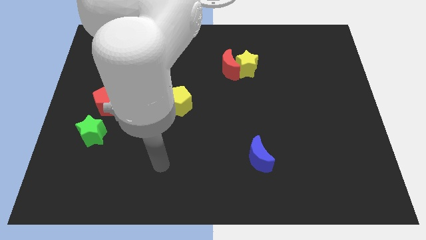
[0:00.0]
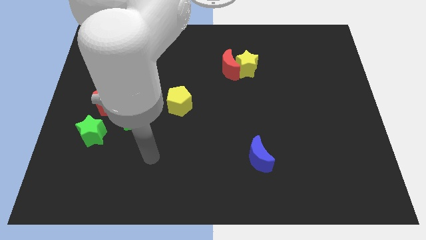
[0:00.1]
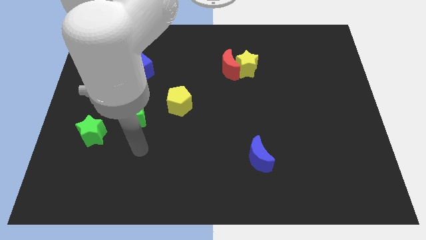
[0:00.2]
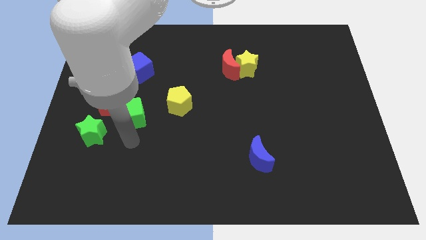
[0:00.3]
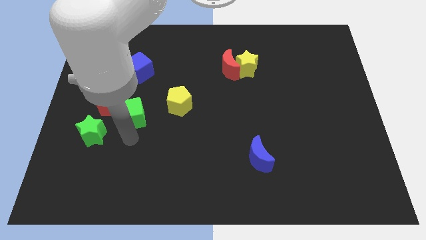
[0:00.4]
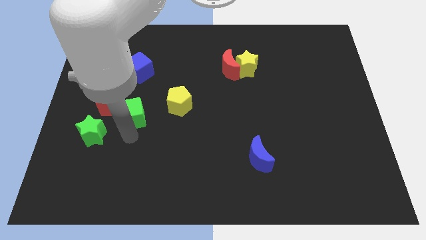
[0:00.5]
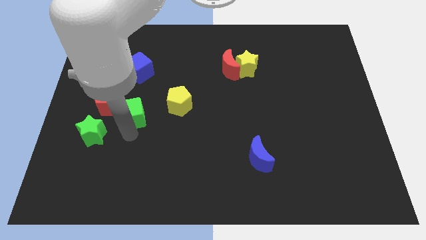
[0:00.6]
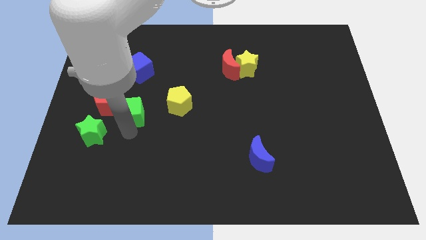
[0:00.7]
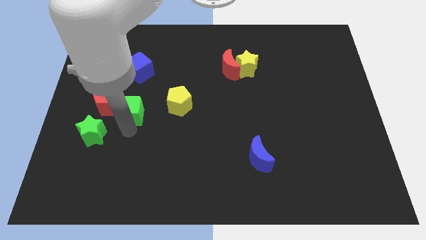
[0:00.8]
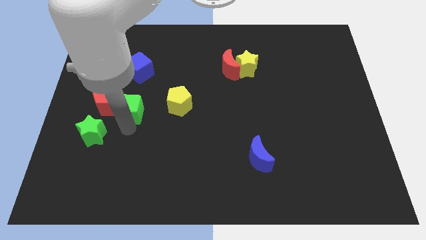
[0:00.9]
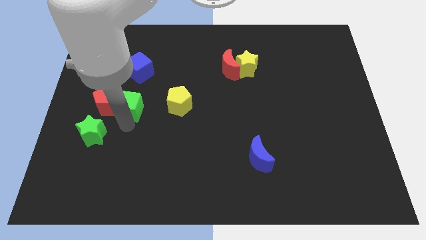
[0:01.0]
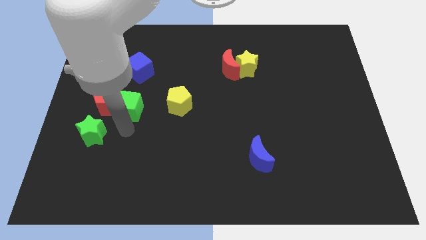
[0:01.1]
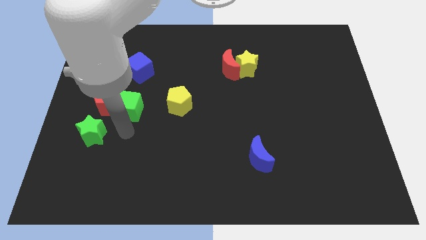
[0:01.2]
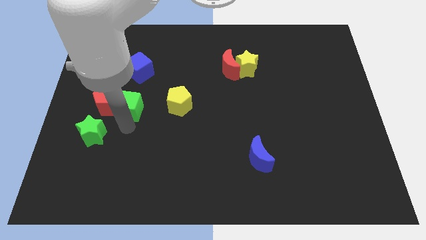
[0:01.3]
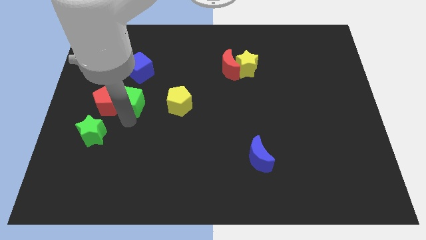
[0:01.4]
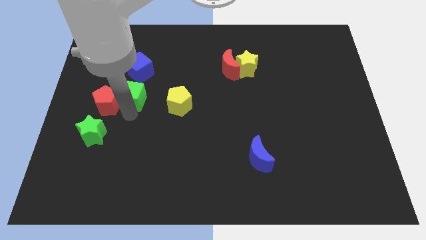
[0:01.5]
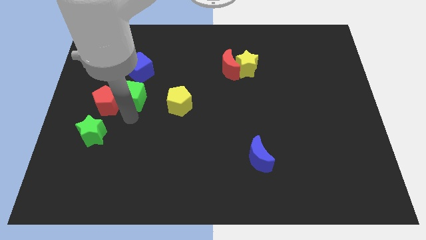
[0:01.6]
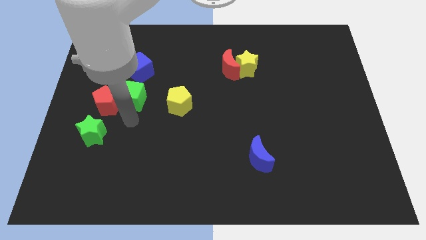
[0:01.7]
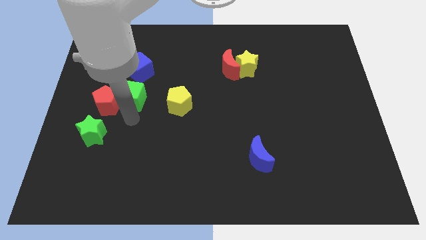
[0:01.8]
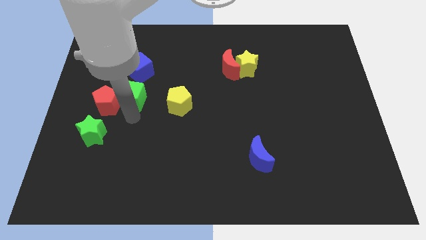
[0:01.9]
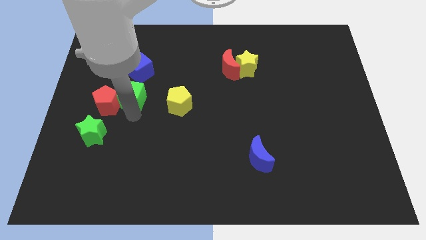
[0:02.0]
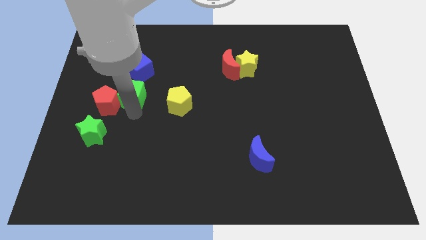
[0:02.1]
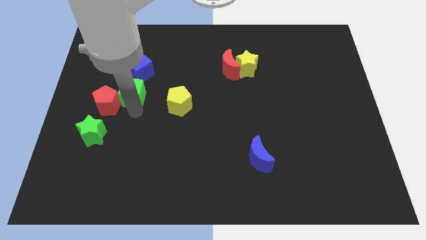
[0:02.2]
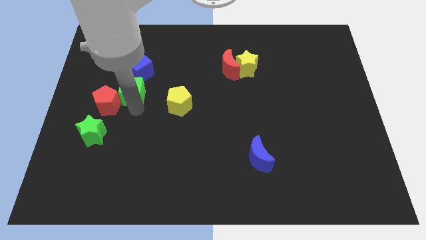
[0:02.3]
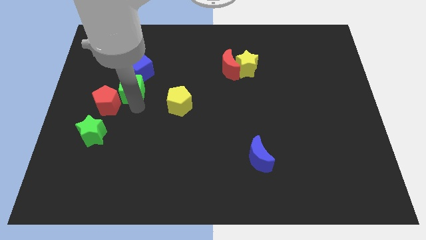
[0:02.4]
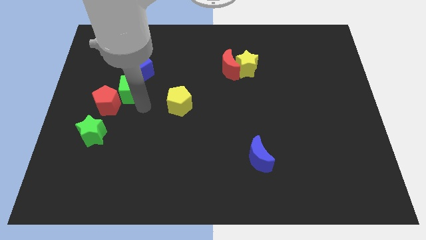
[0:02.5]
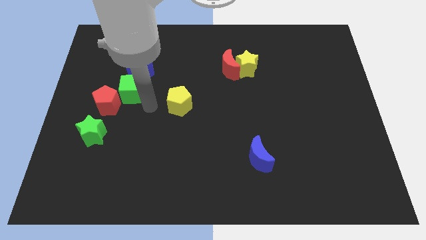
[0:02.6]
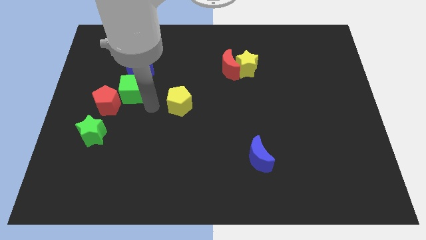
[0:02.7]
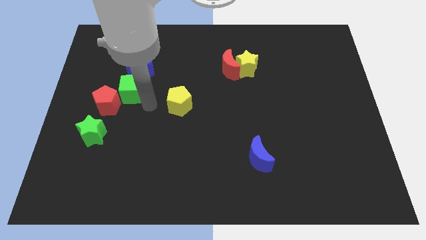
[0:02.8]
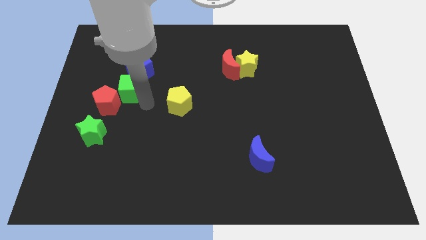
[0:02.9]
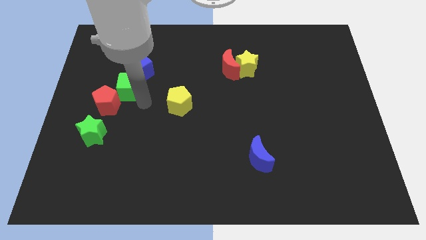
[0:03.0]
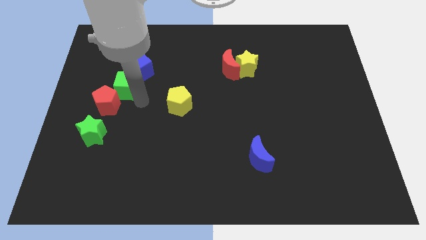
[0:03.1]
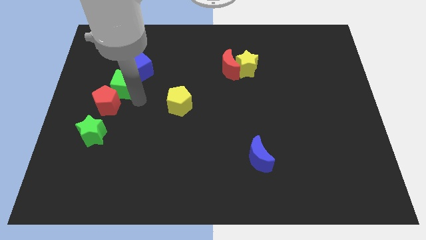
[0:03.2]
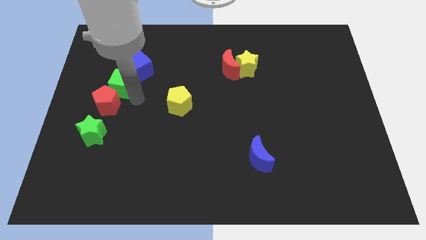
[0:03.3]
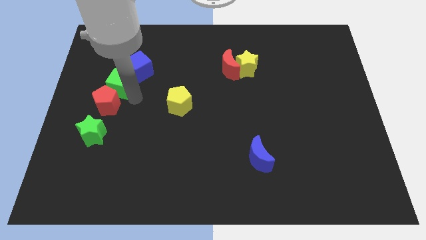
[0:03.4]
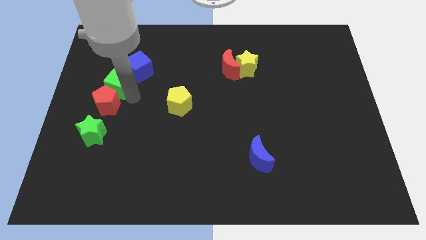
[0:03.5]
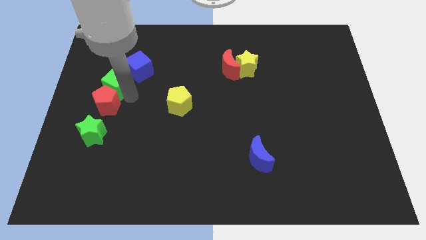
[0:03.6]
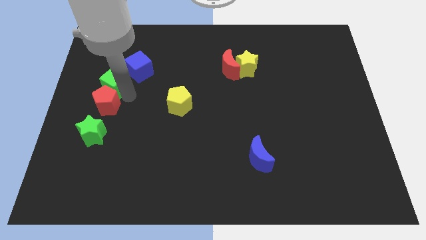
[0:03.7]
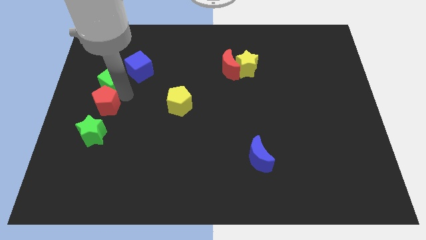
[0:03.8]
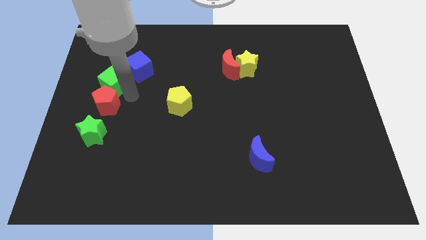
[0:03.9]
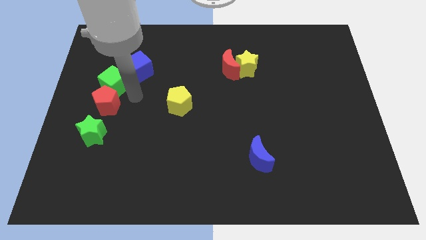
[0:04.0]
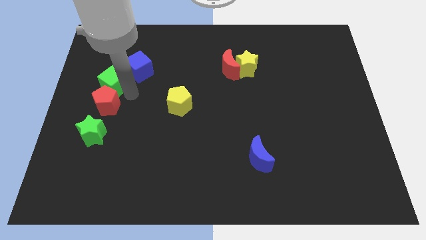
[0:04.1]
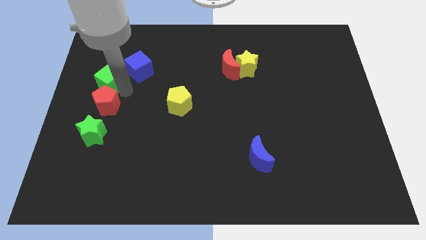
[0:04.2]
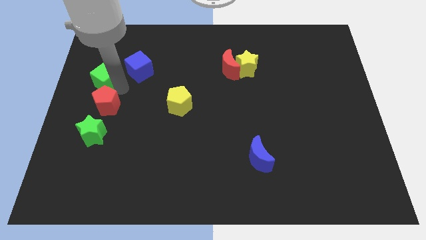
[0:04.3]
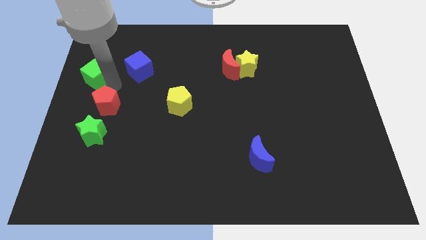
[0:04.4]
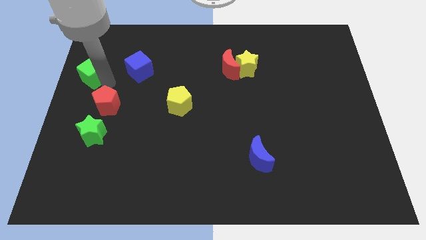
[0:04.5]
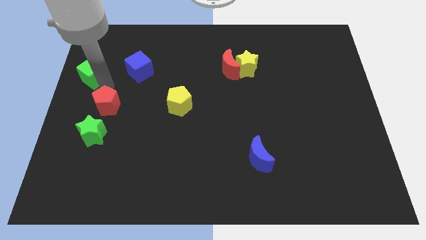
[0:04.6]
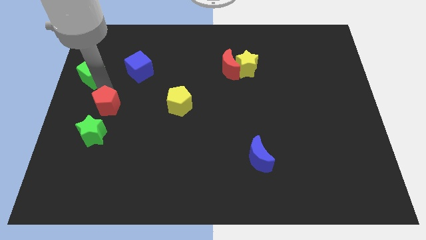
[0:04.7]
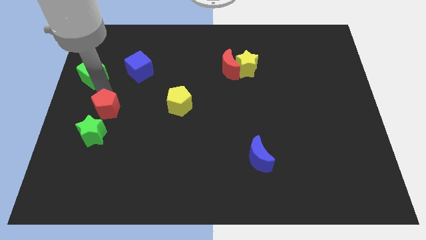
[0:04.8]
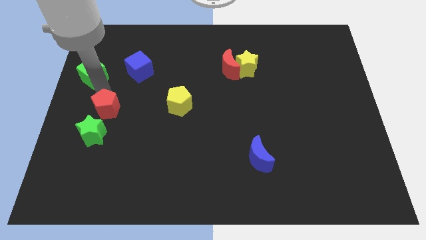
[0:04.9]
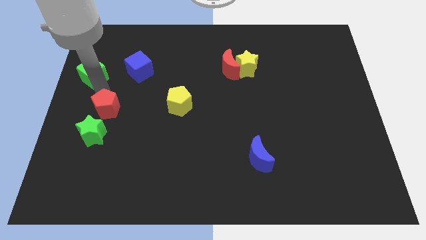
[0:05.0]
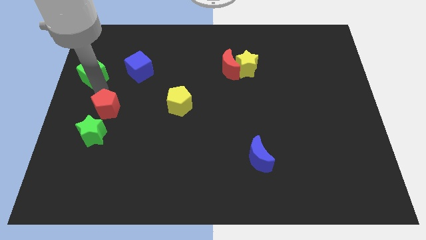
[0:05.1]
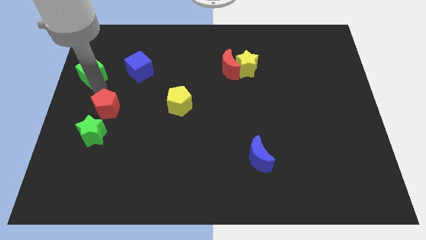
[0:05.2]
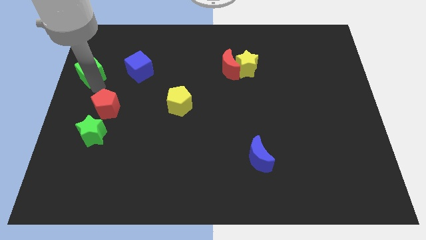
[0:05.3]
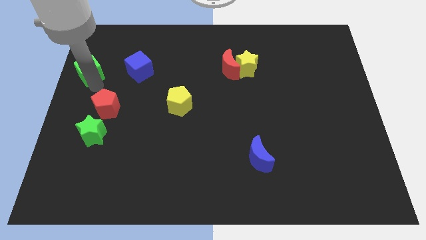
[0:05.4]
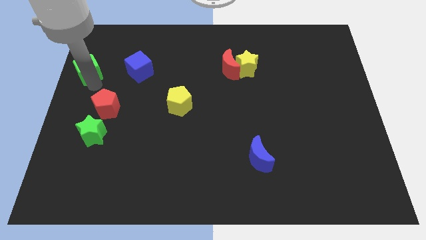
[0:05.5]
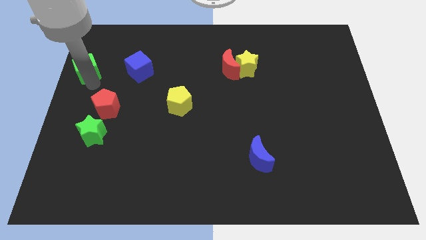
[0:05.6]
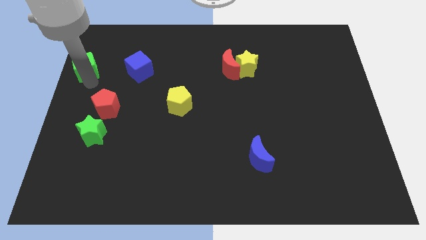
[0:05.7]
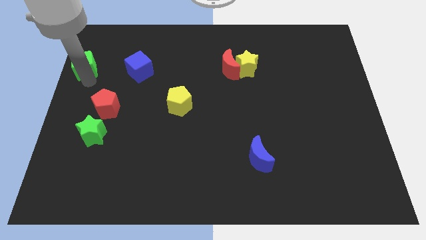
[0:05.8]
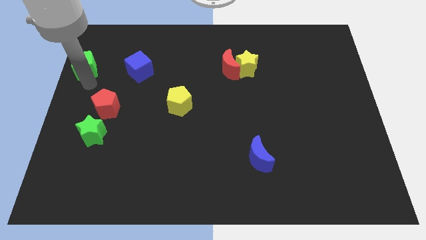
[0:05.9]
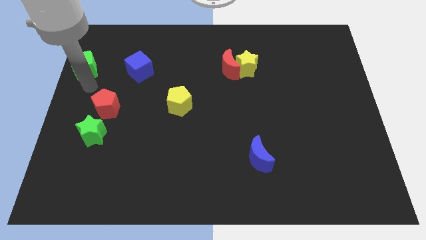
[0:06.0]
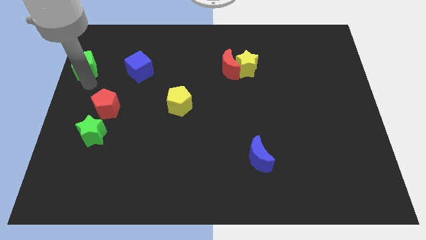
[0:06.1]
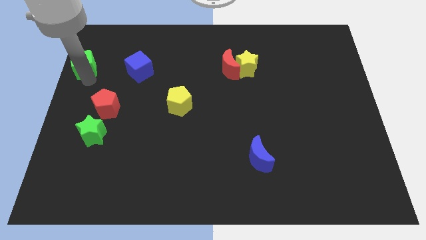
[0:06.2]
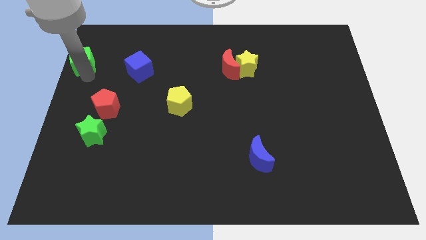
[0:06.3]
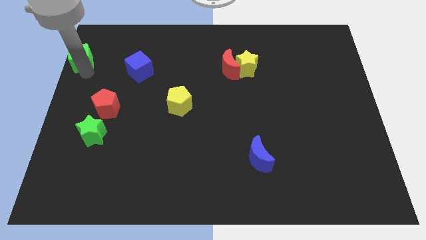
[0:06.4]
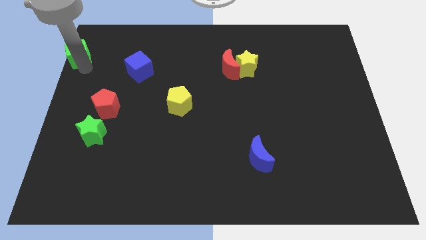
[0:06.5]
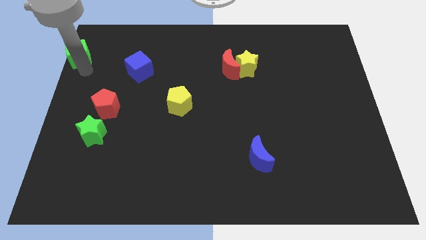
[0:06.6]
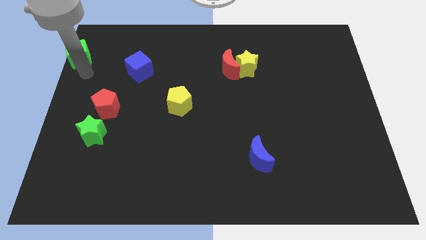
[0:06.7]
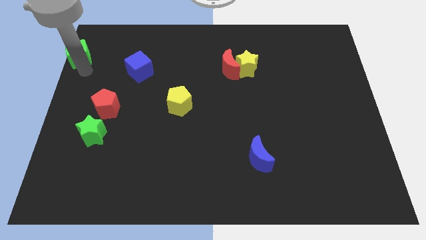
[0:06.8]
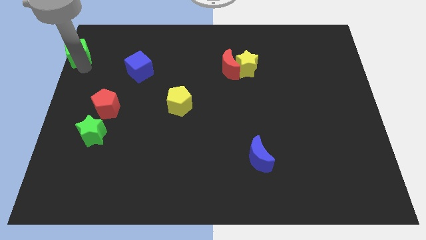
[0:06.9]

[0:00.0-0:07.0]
put the green cube to the top left

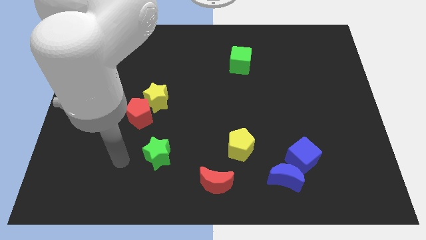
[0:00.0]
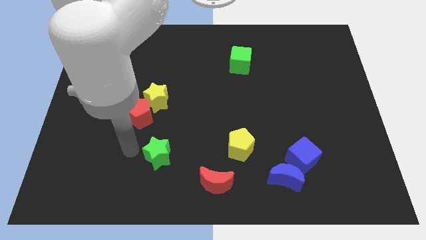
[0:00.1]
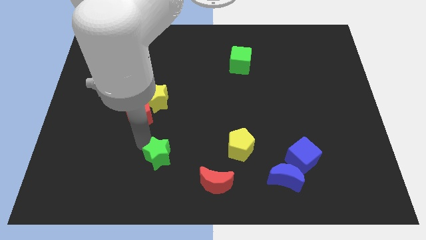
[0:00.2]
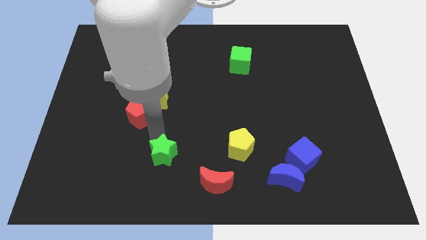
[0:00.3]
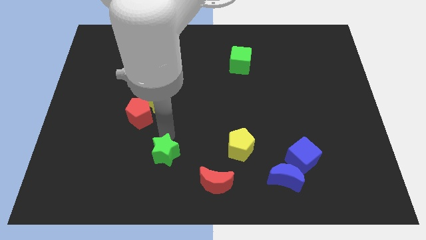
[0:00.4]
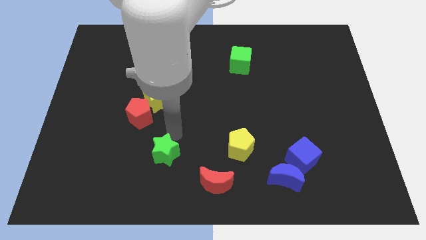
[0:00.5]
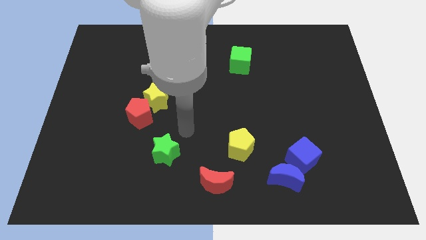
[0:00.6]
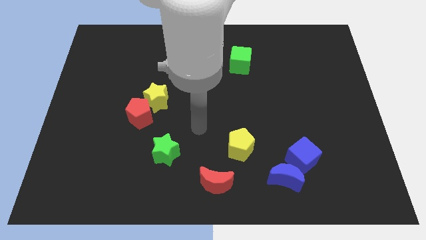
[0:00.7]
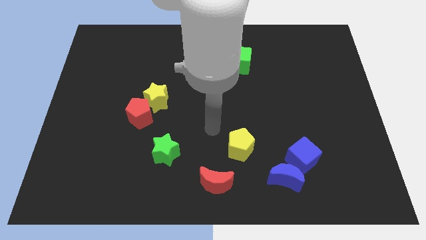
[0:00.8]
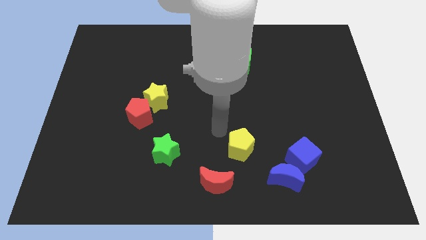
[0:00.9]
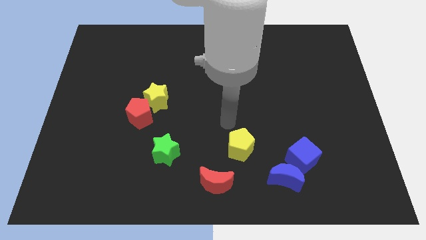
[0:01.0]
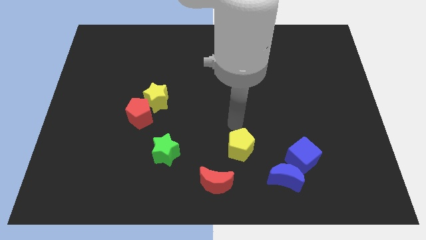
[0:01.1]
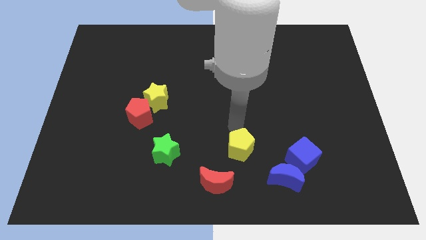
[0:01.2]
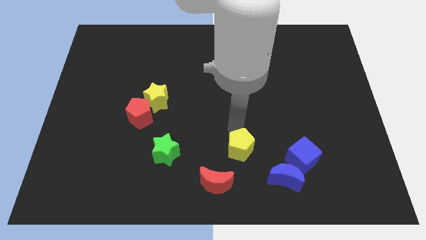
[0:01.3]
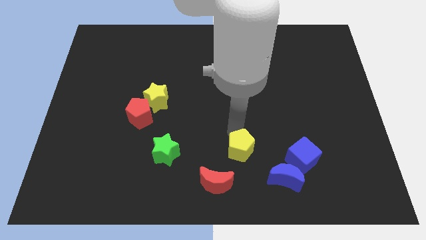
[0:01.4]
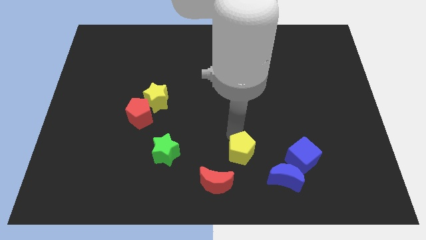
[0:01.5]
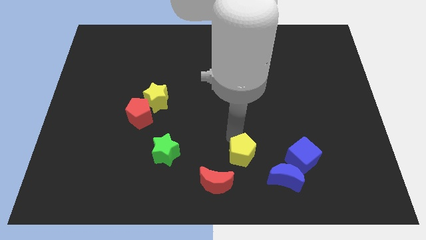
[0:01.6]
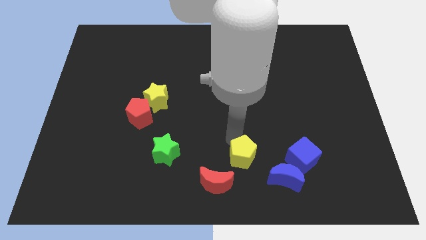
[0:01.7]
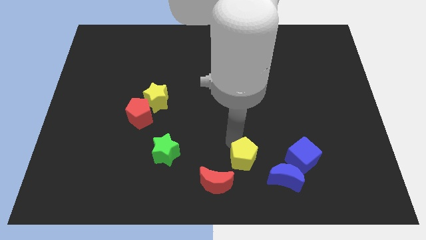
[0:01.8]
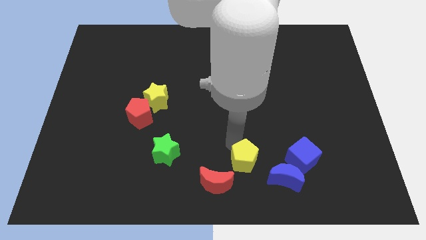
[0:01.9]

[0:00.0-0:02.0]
move the yellow pentagon to the bottom side
